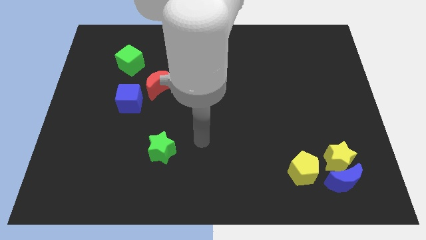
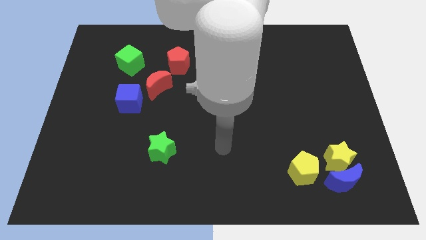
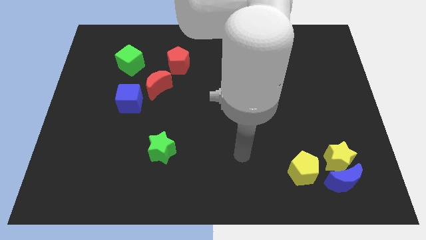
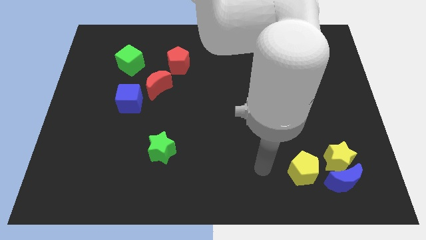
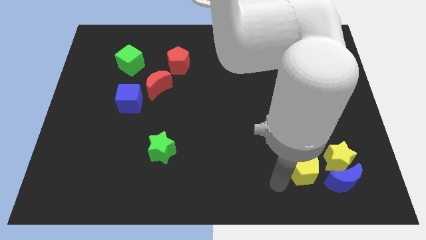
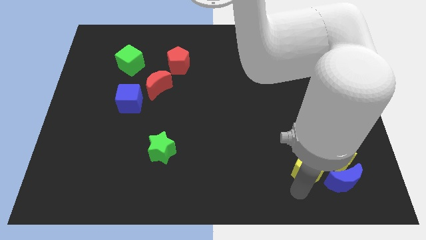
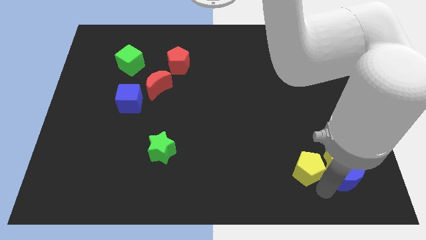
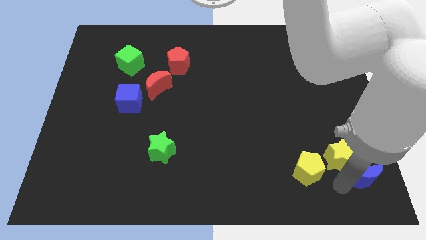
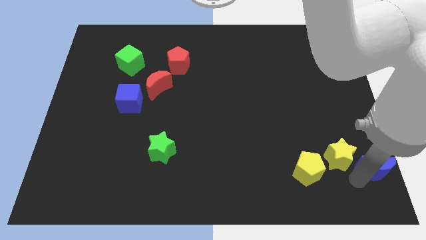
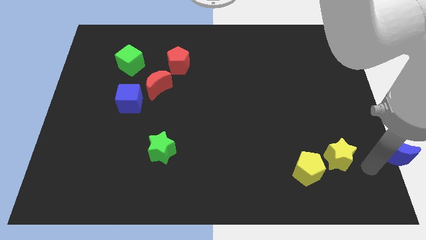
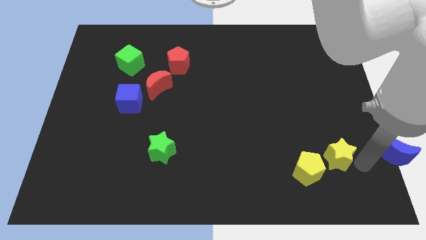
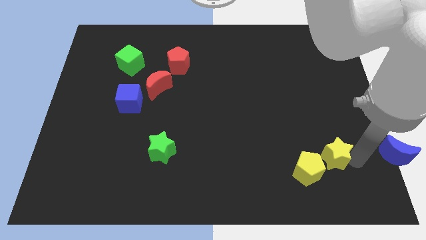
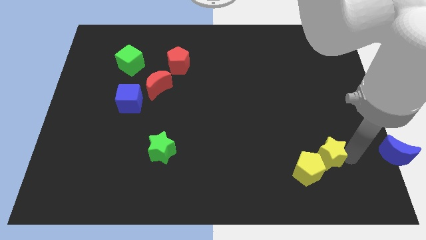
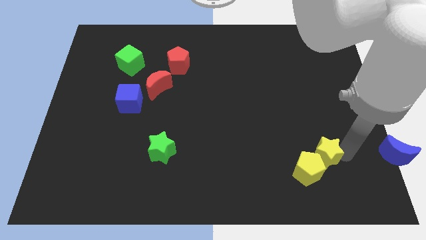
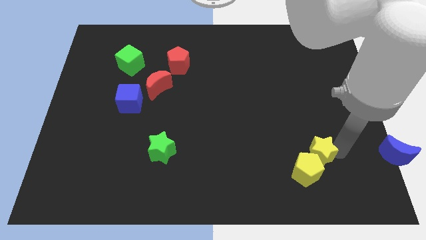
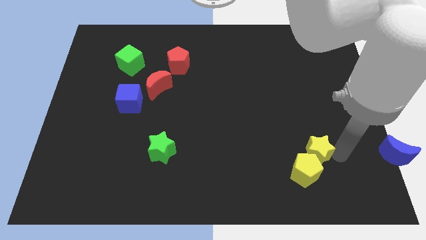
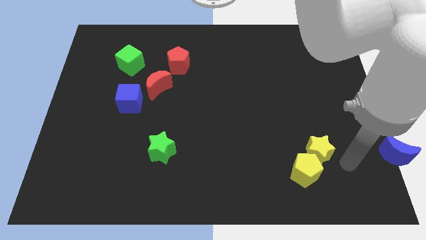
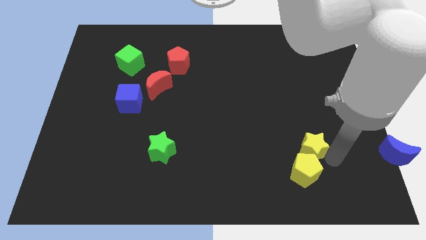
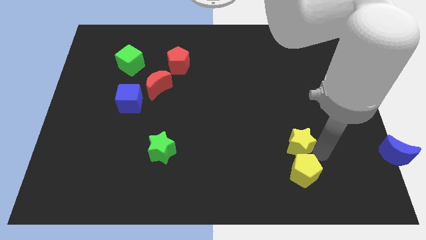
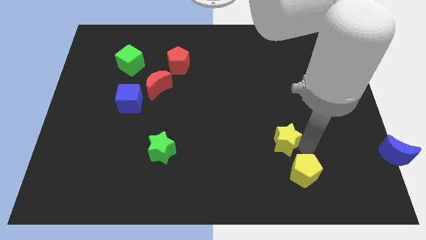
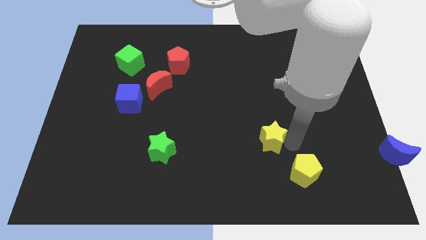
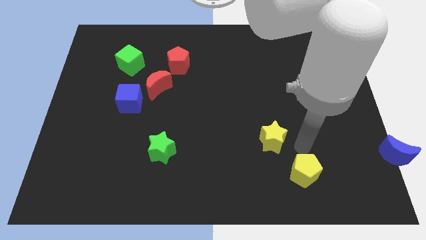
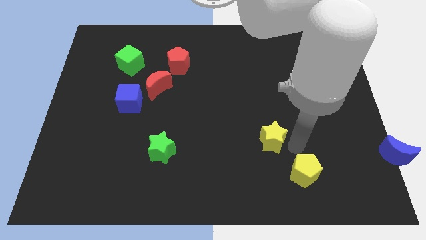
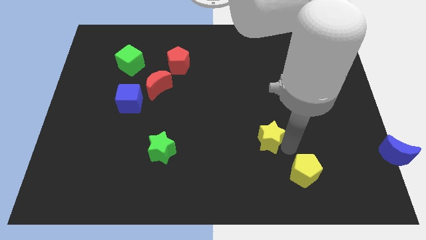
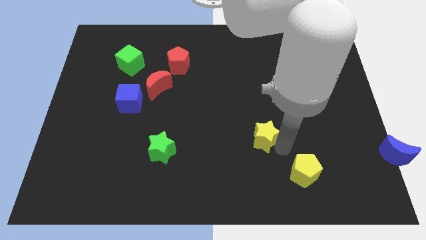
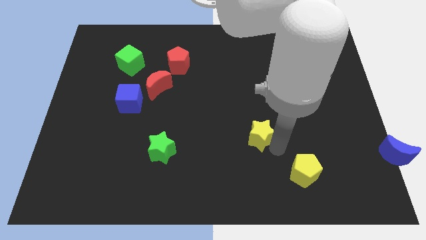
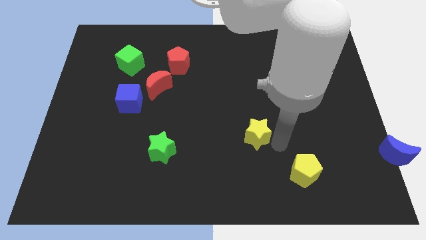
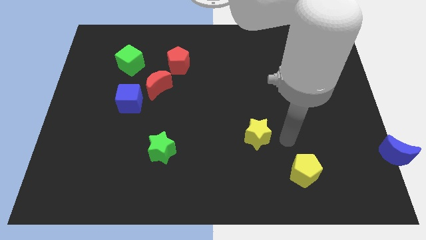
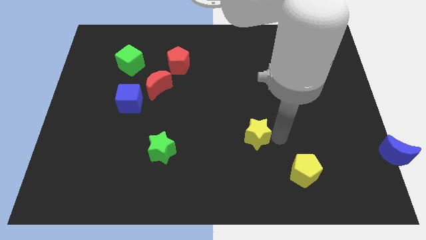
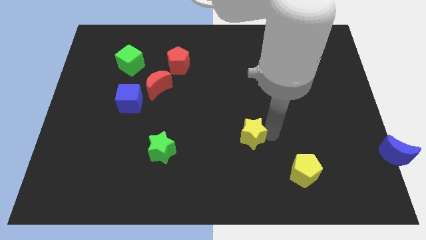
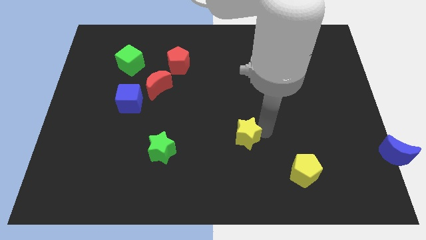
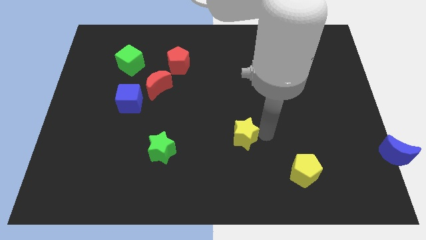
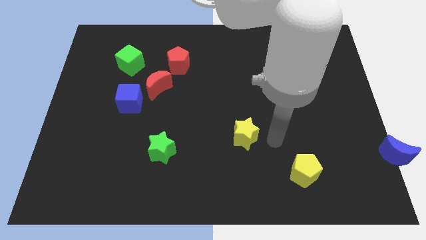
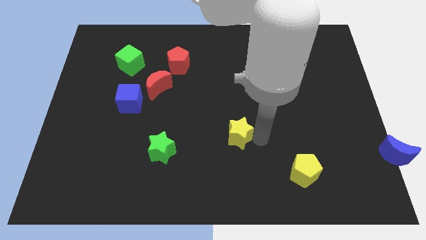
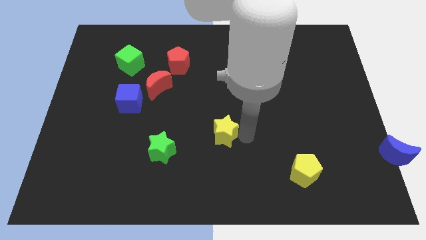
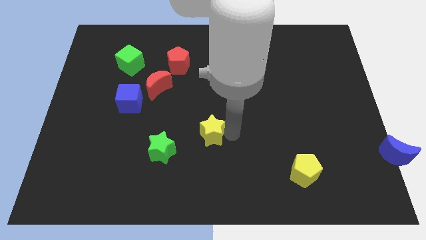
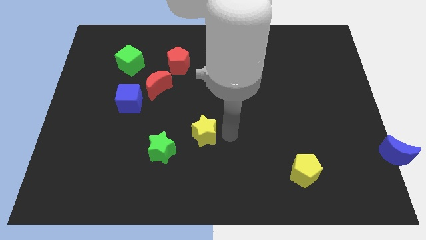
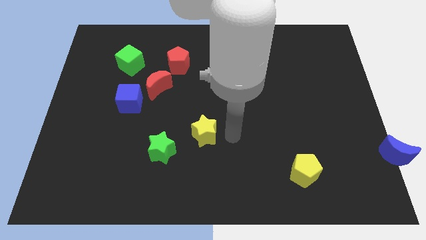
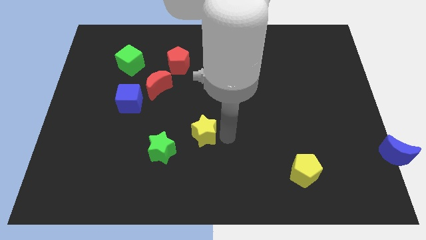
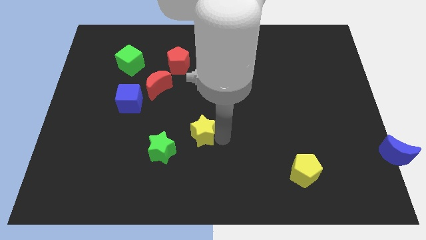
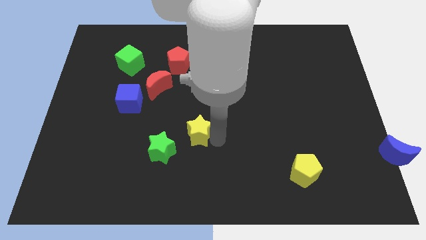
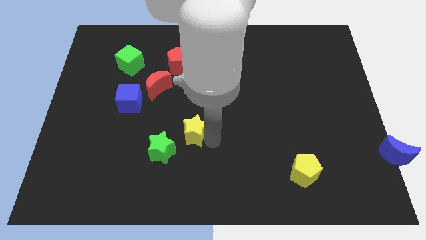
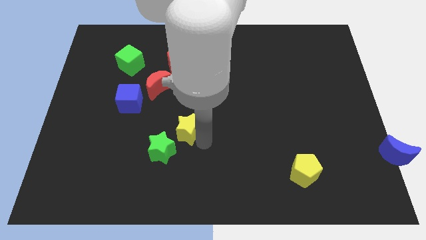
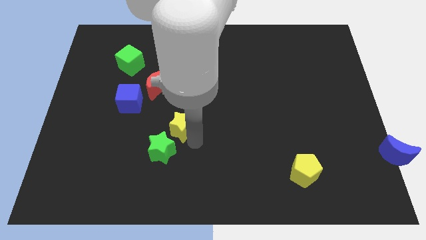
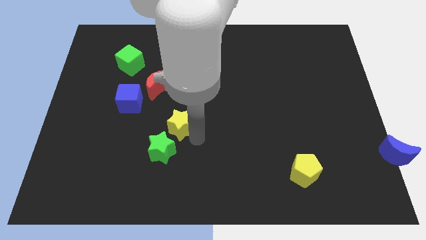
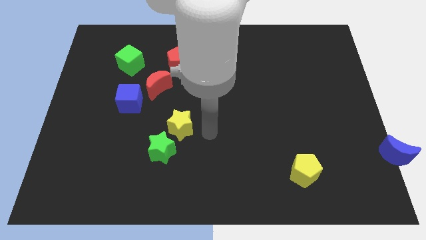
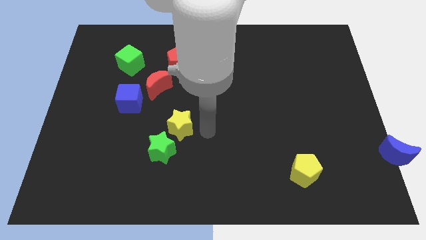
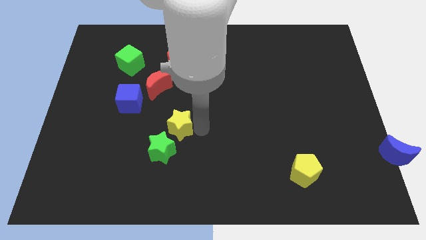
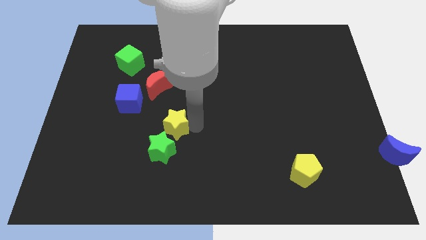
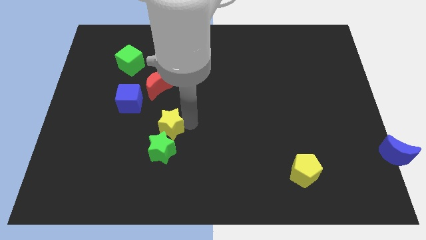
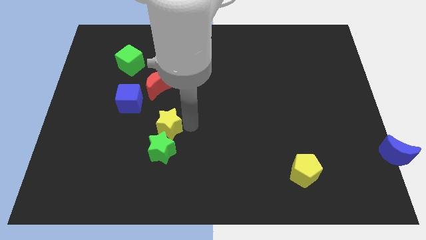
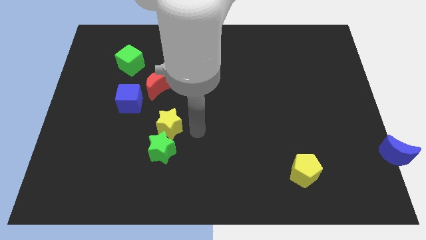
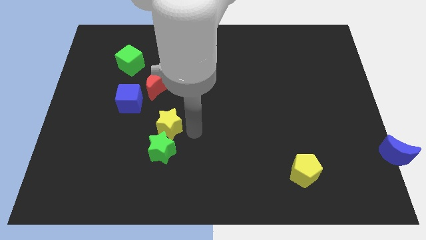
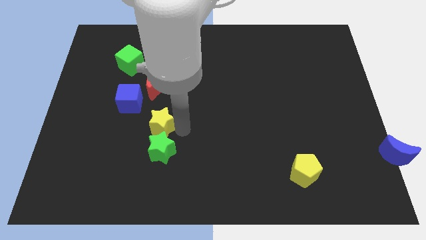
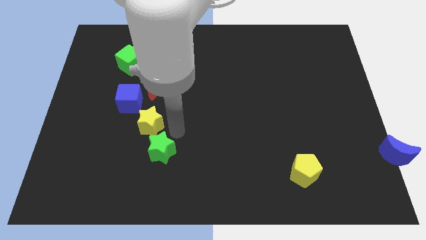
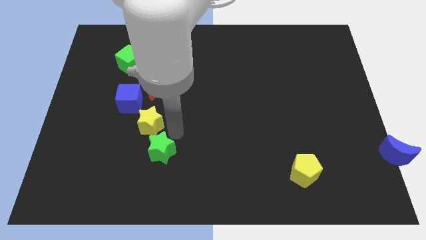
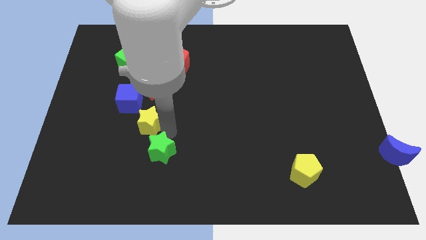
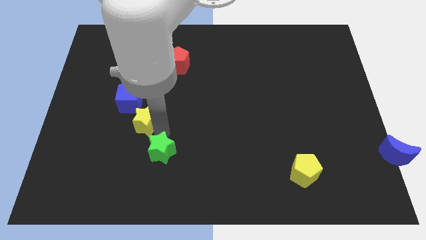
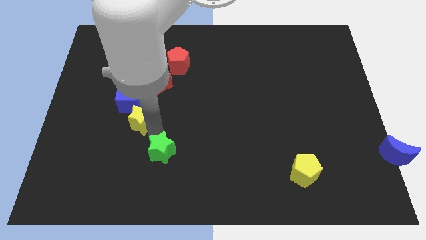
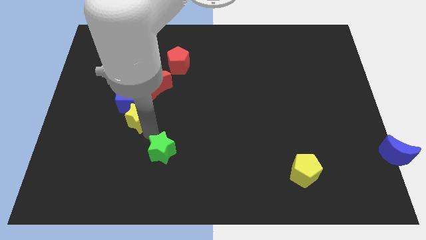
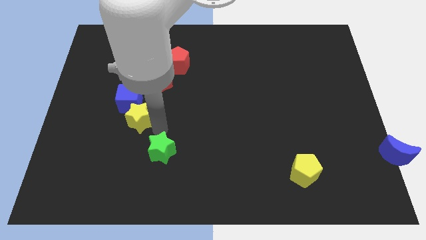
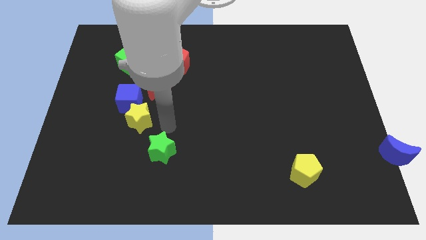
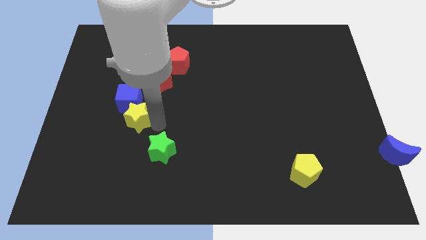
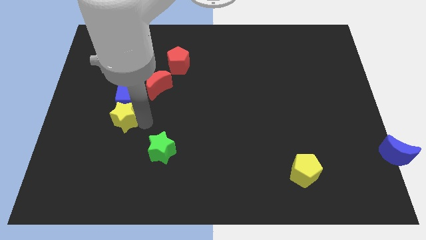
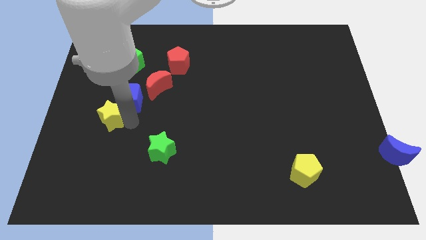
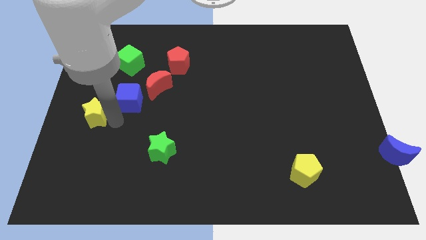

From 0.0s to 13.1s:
put the yellow star to the left side

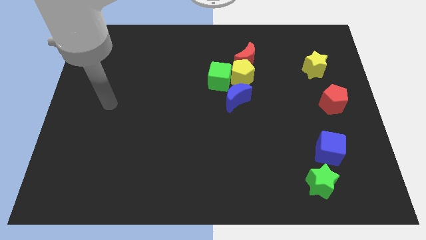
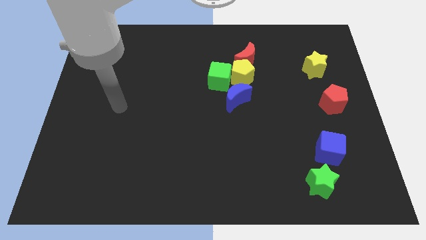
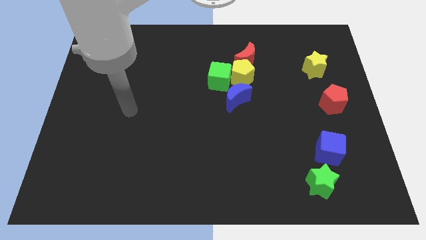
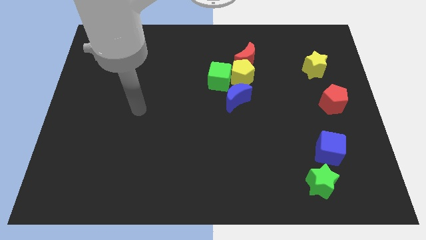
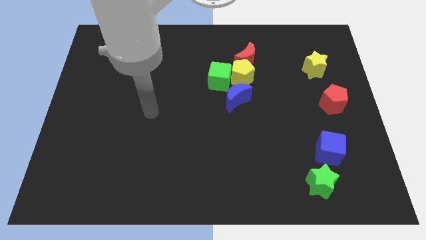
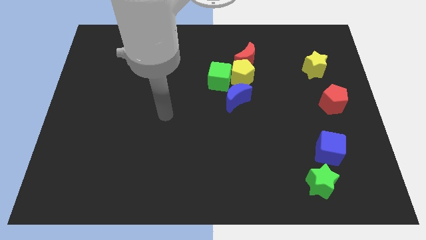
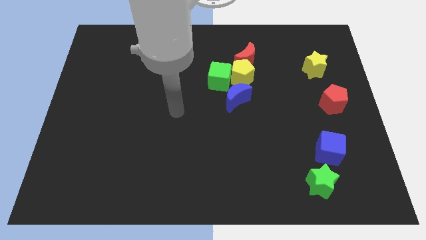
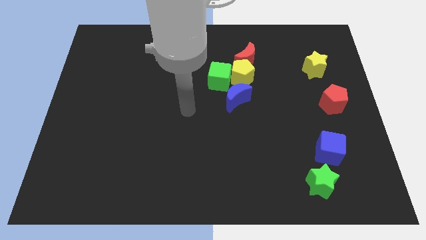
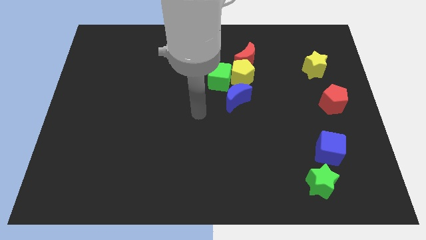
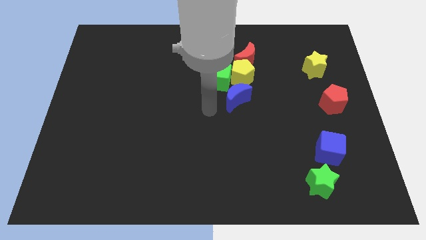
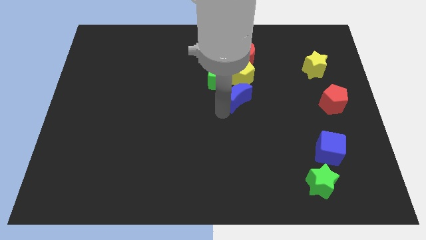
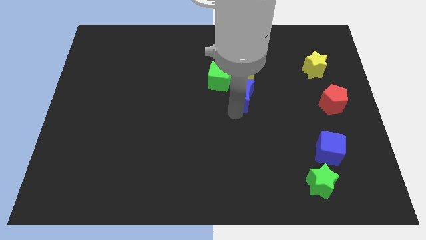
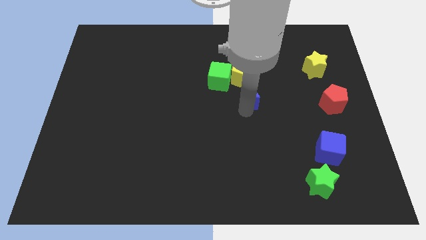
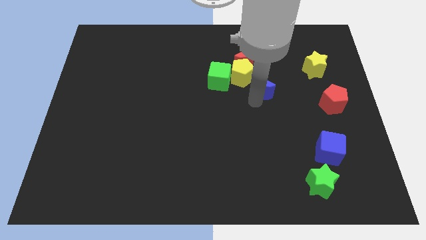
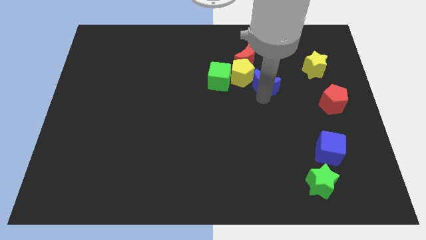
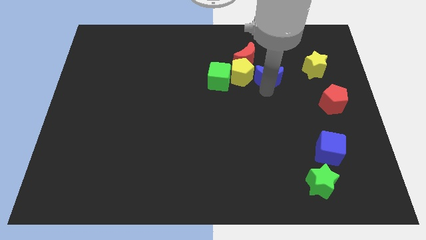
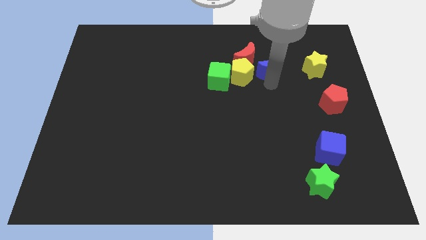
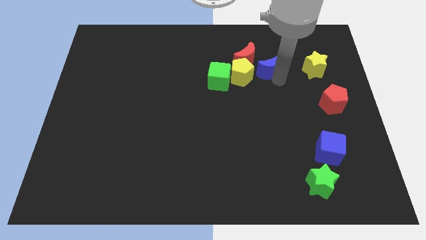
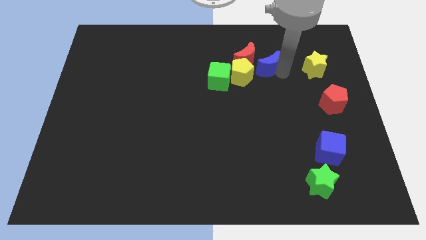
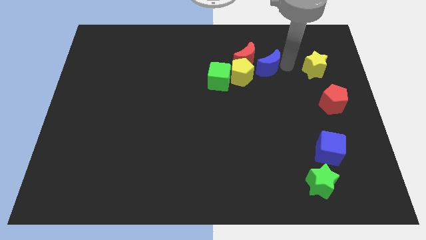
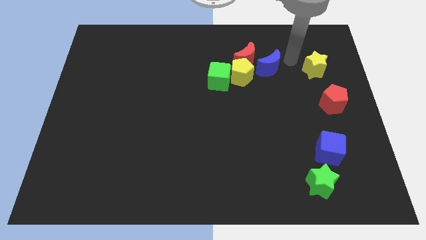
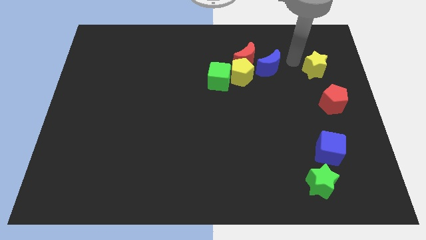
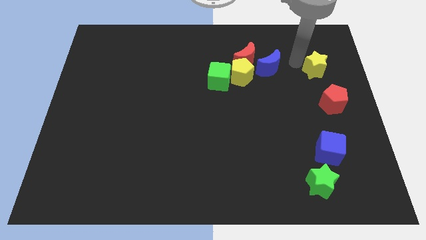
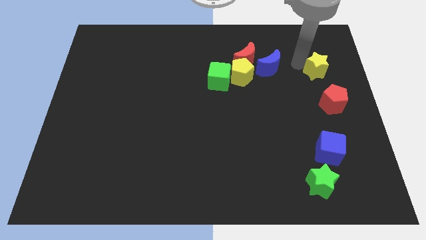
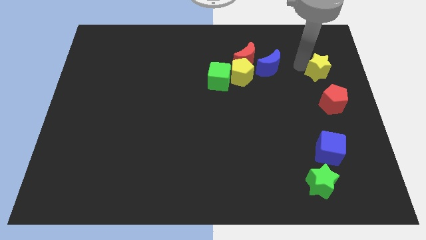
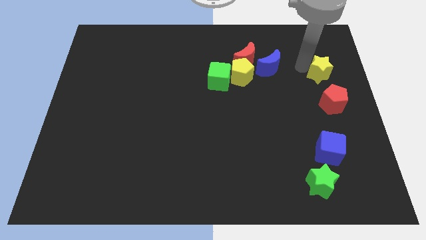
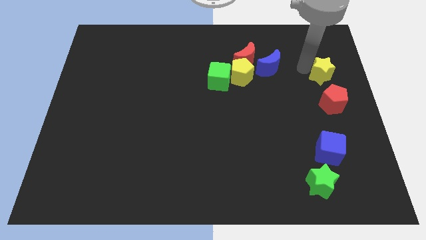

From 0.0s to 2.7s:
slide the yellow star to the right side
